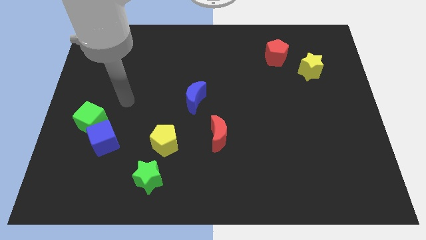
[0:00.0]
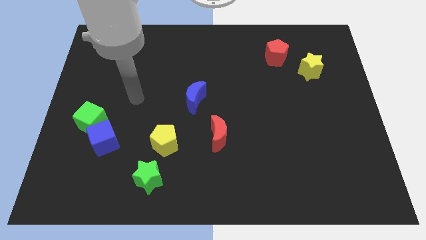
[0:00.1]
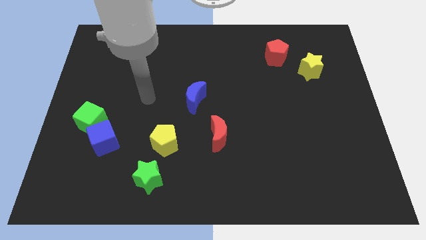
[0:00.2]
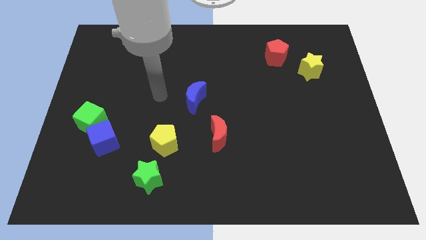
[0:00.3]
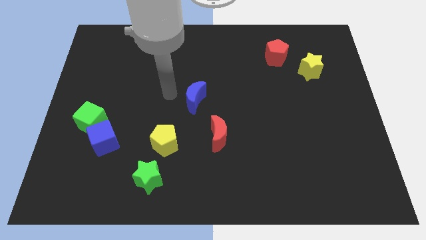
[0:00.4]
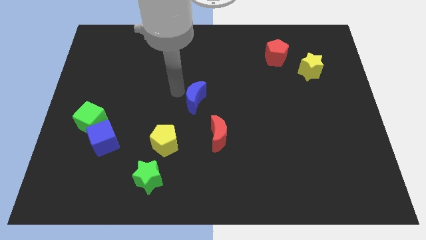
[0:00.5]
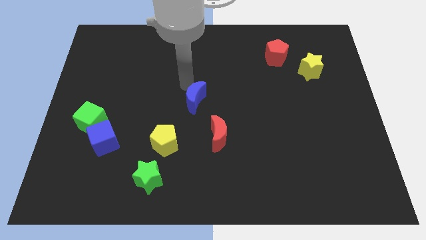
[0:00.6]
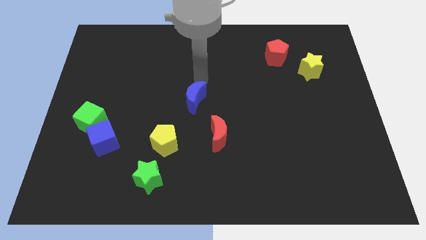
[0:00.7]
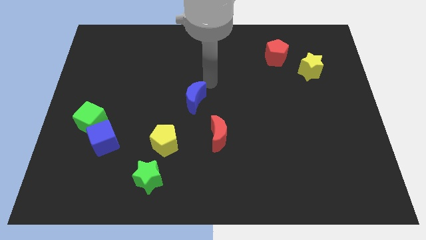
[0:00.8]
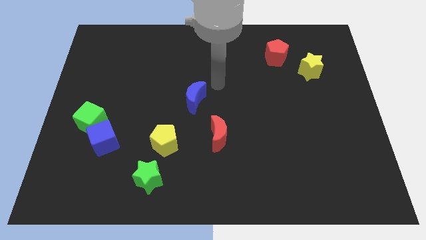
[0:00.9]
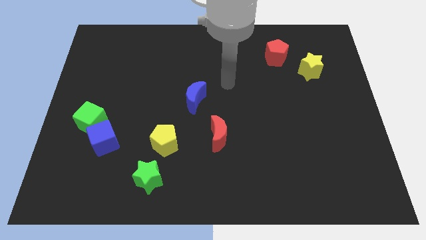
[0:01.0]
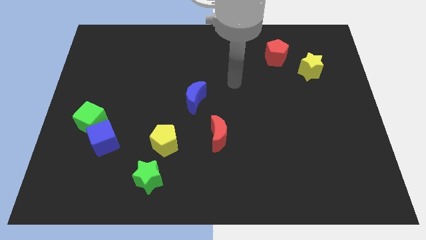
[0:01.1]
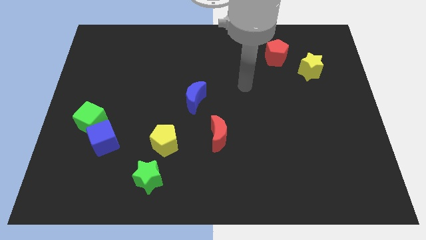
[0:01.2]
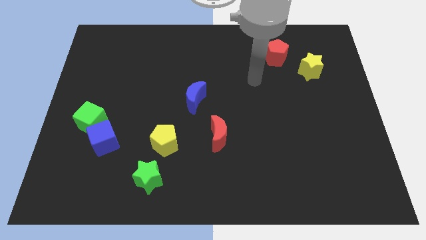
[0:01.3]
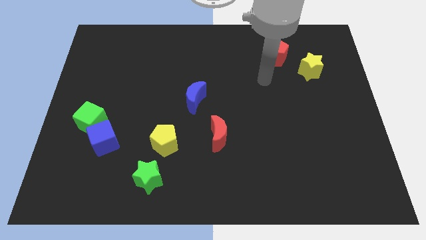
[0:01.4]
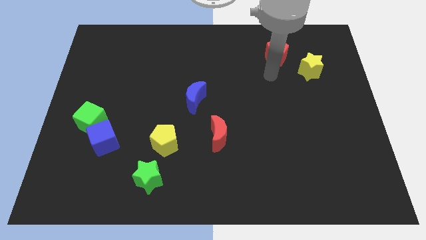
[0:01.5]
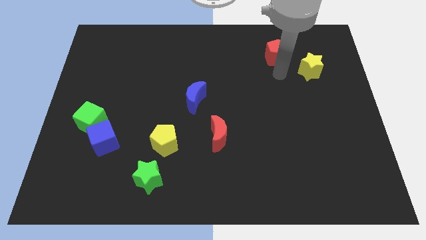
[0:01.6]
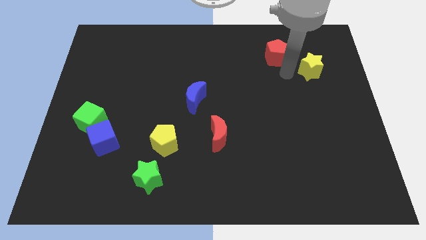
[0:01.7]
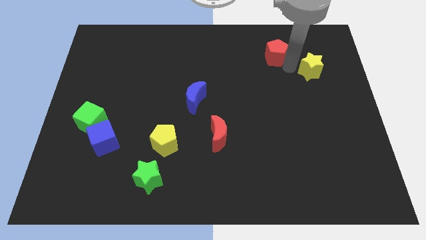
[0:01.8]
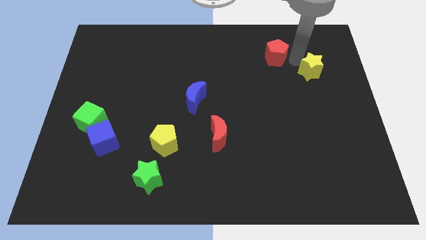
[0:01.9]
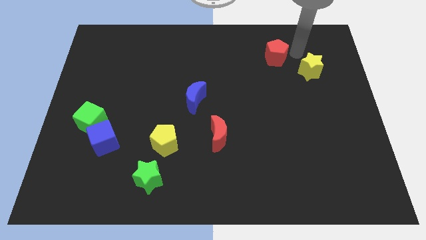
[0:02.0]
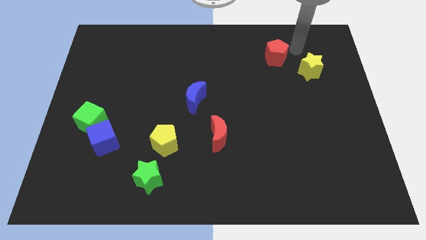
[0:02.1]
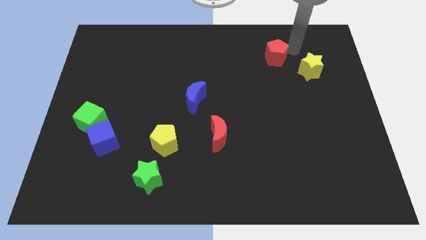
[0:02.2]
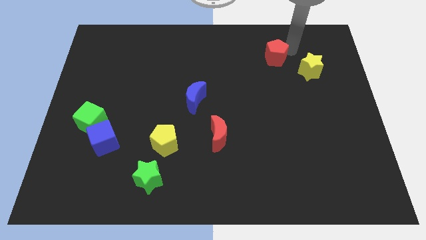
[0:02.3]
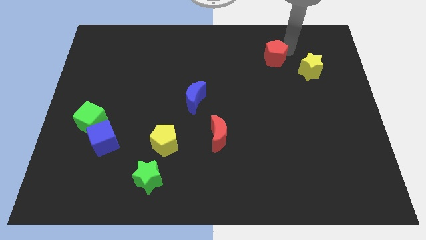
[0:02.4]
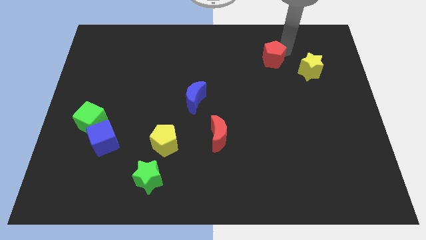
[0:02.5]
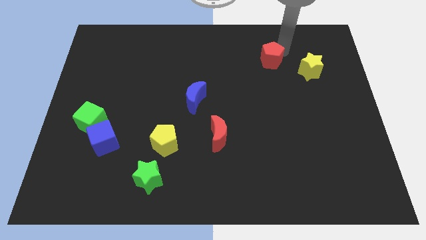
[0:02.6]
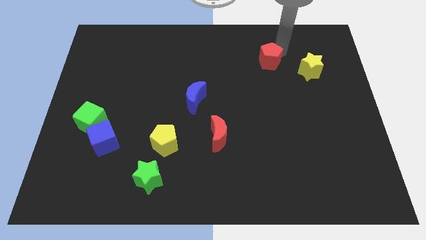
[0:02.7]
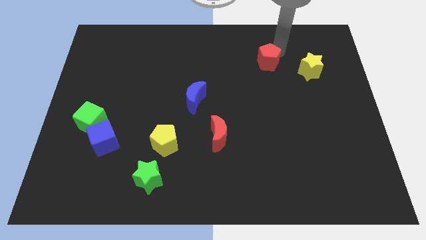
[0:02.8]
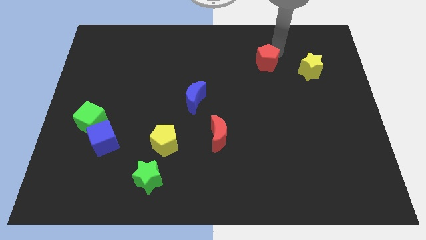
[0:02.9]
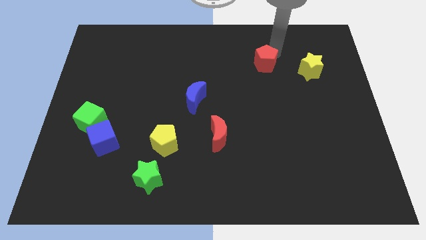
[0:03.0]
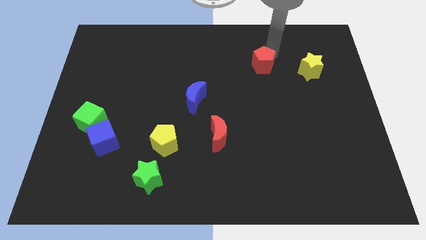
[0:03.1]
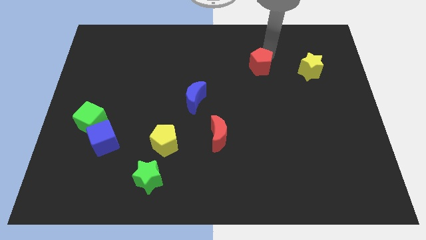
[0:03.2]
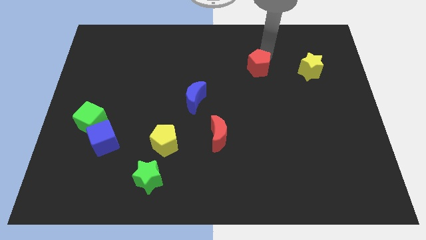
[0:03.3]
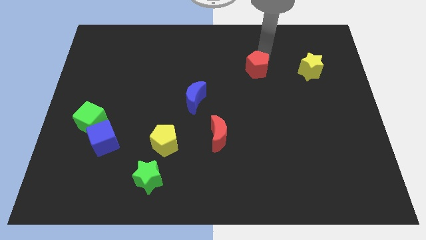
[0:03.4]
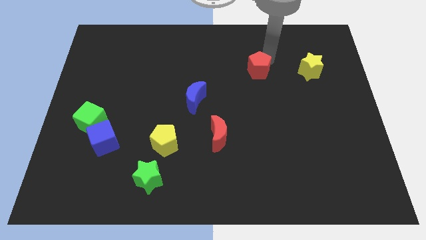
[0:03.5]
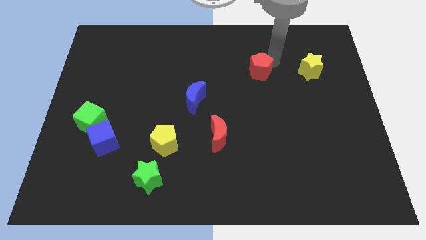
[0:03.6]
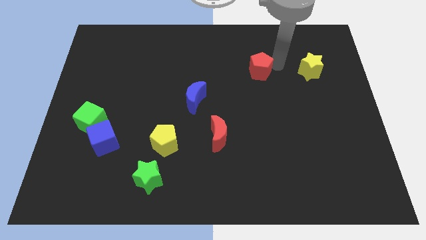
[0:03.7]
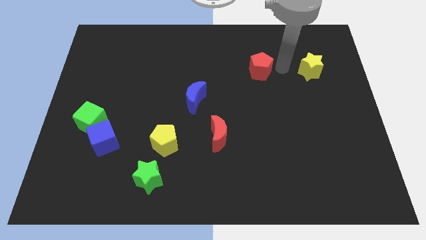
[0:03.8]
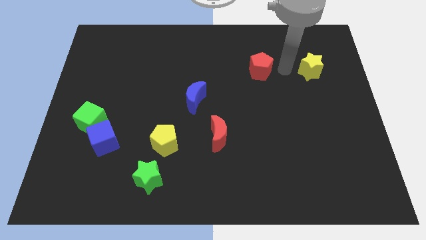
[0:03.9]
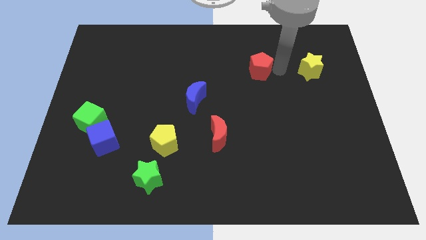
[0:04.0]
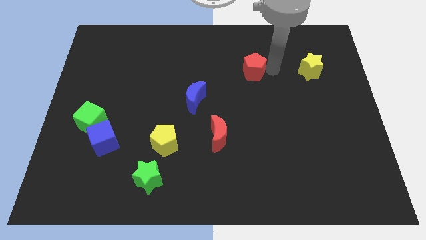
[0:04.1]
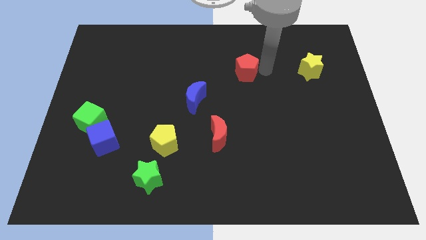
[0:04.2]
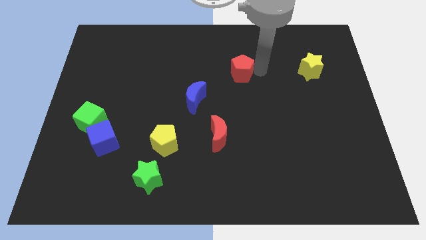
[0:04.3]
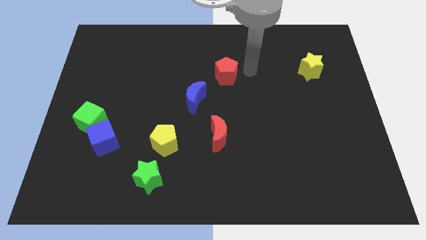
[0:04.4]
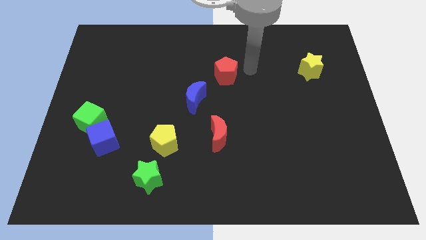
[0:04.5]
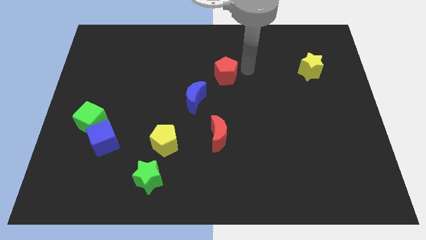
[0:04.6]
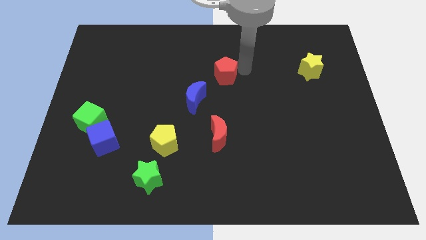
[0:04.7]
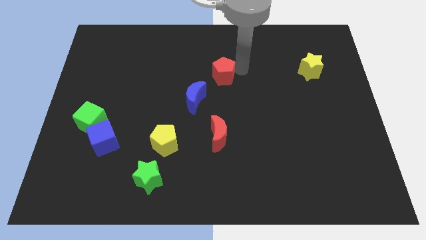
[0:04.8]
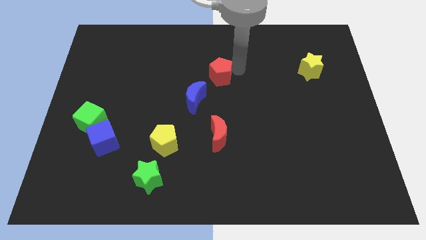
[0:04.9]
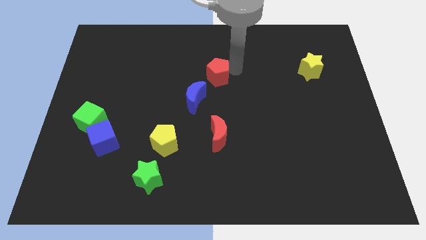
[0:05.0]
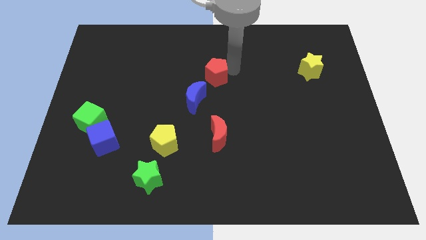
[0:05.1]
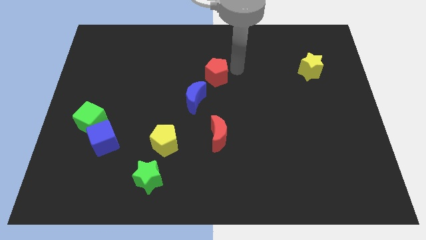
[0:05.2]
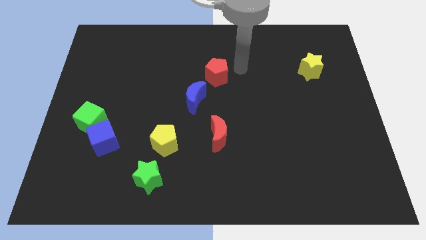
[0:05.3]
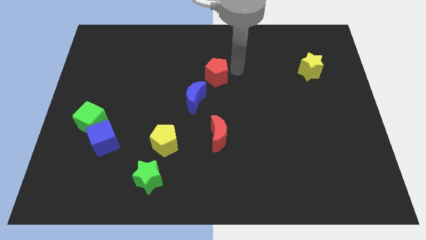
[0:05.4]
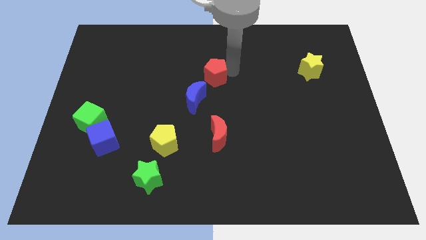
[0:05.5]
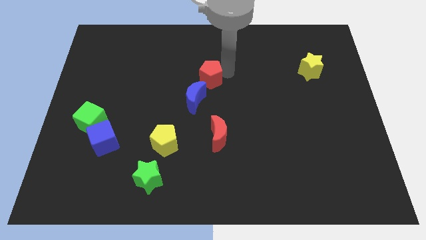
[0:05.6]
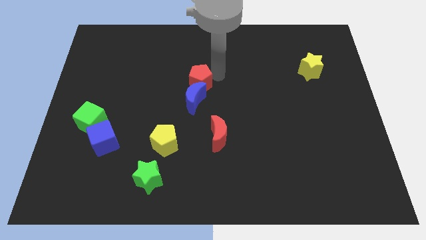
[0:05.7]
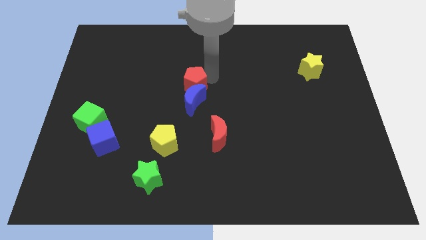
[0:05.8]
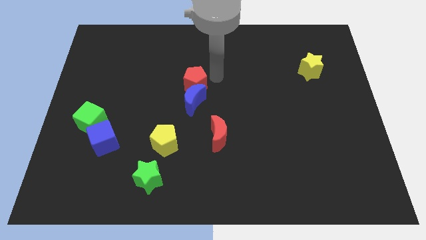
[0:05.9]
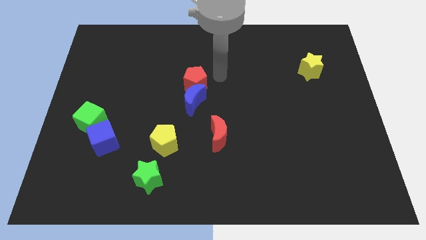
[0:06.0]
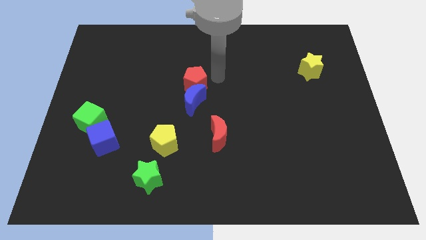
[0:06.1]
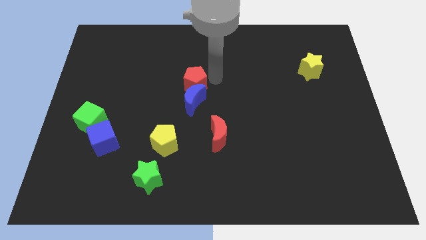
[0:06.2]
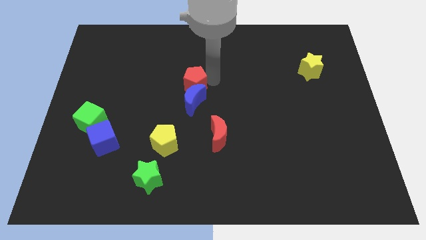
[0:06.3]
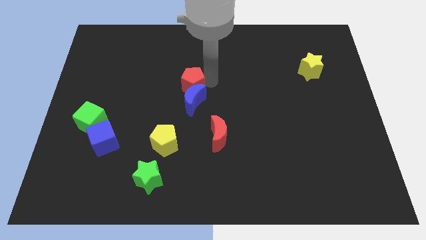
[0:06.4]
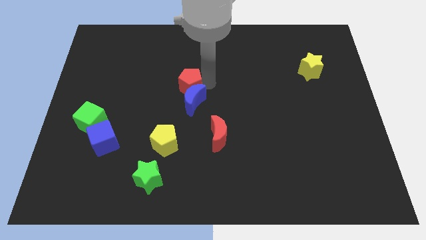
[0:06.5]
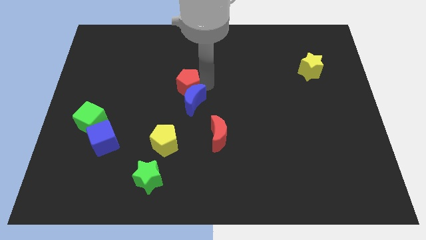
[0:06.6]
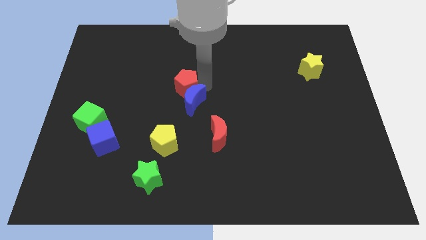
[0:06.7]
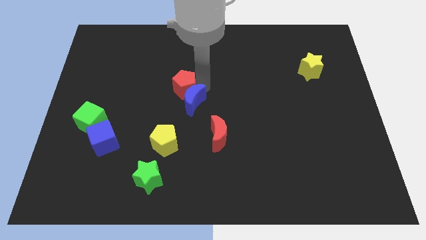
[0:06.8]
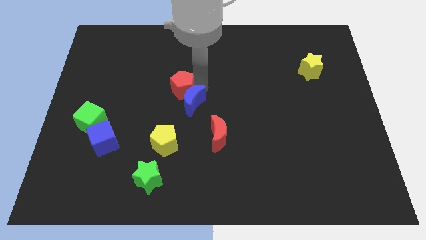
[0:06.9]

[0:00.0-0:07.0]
put the red pentagon left of the blue moon
